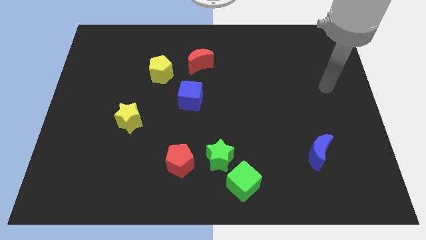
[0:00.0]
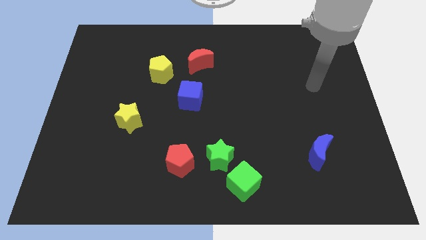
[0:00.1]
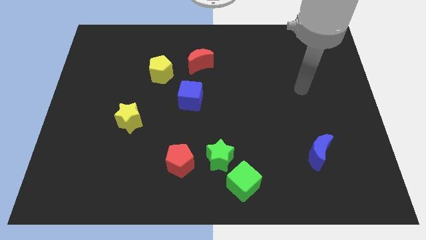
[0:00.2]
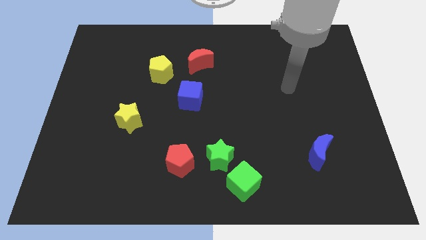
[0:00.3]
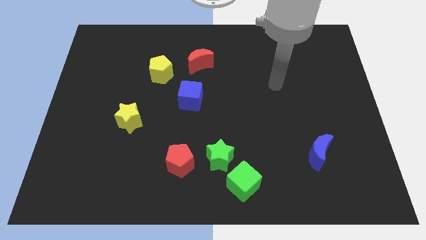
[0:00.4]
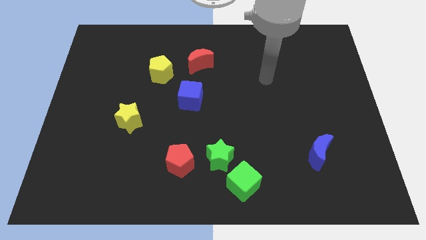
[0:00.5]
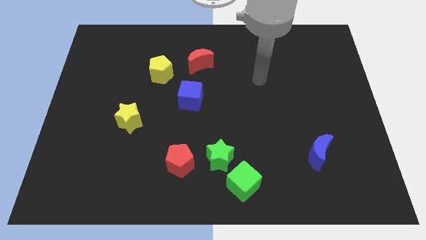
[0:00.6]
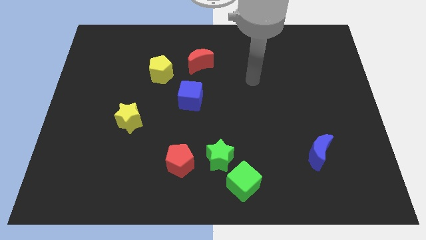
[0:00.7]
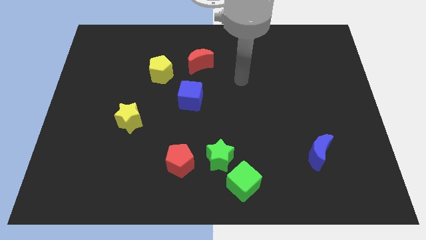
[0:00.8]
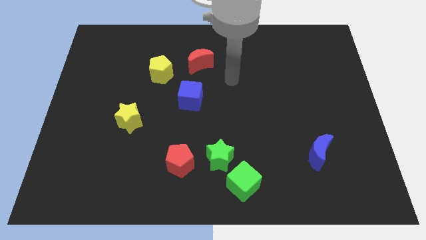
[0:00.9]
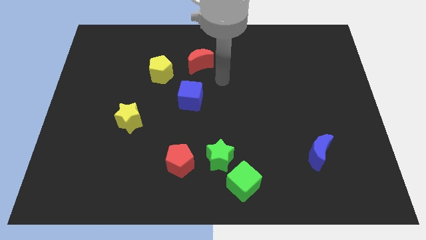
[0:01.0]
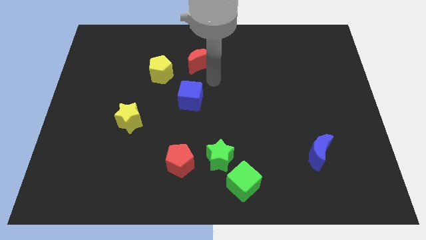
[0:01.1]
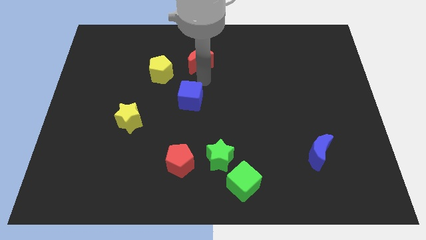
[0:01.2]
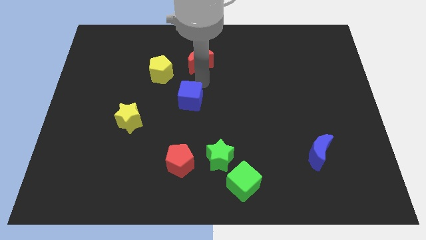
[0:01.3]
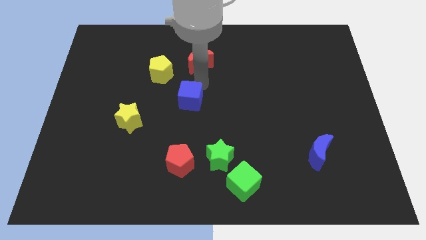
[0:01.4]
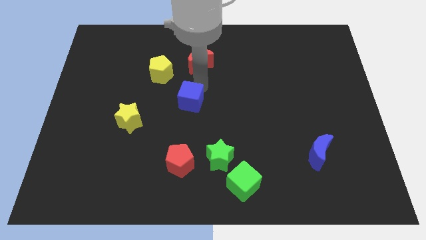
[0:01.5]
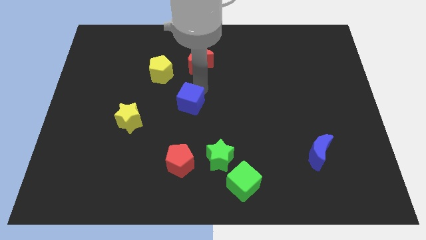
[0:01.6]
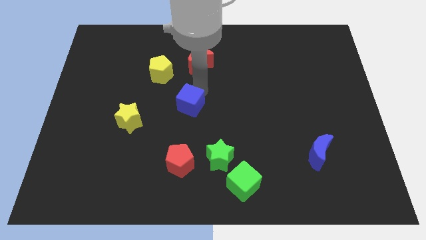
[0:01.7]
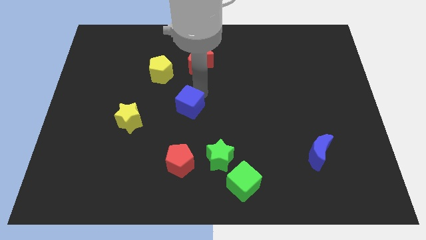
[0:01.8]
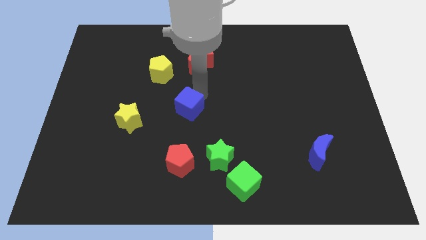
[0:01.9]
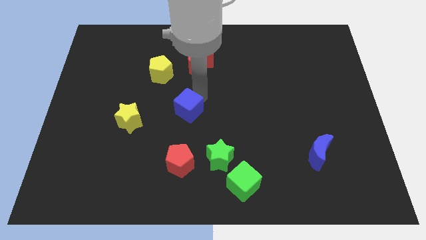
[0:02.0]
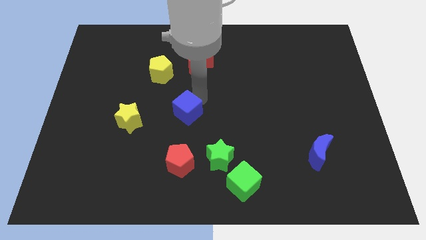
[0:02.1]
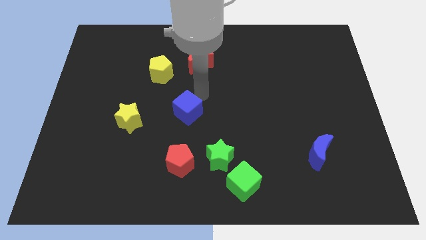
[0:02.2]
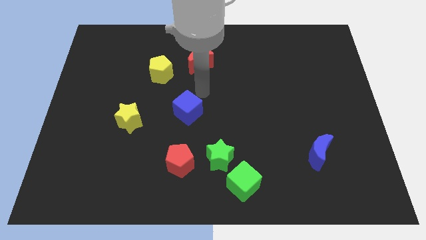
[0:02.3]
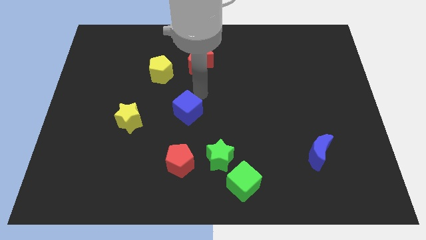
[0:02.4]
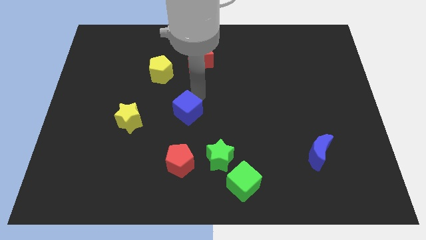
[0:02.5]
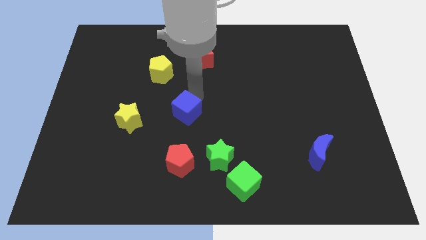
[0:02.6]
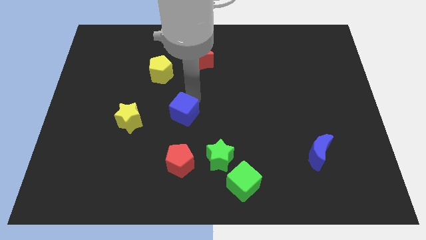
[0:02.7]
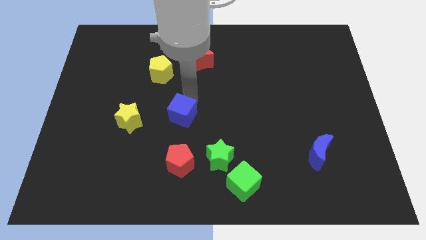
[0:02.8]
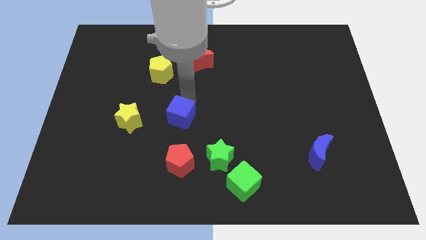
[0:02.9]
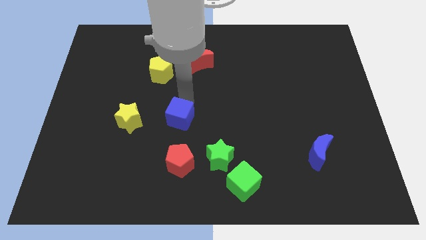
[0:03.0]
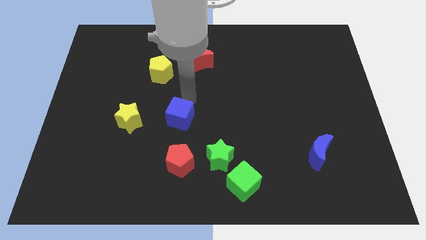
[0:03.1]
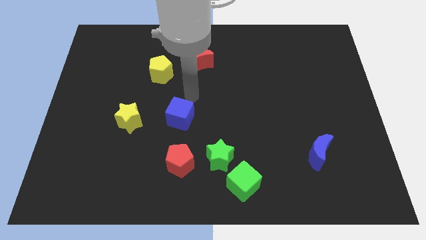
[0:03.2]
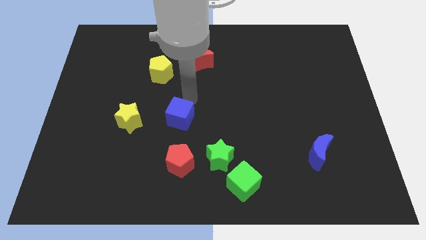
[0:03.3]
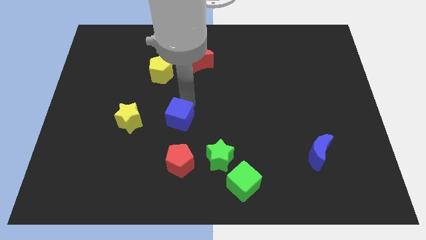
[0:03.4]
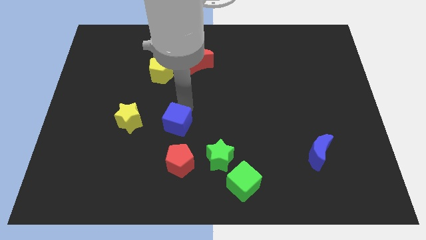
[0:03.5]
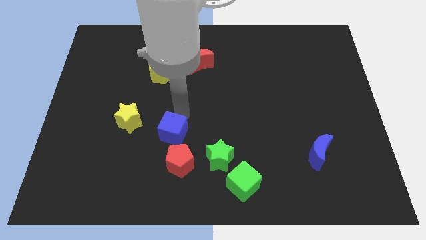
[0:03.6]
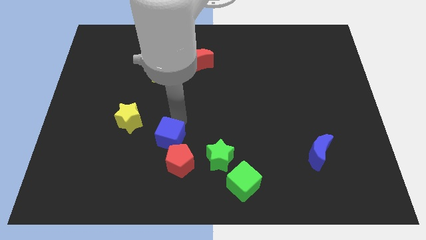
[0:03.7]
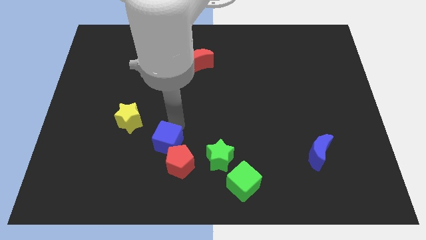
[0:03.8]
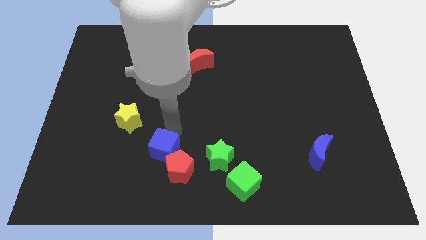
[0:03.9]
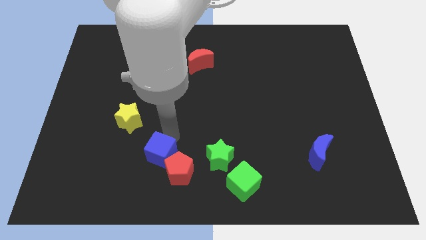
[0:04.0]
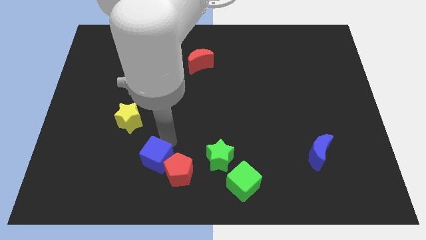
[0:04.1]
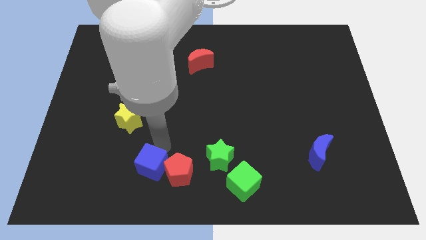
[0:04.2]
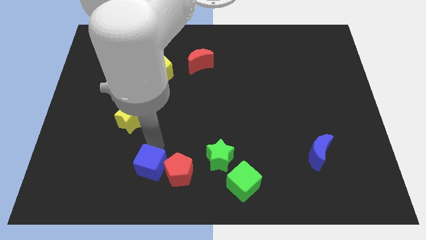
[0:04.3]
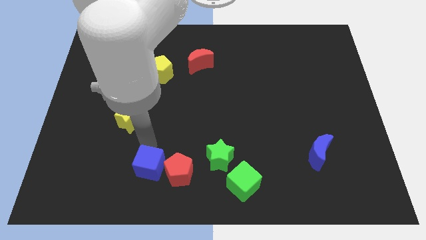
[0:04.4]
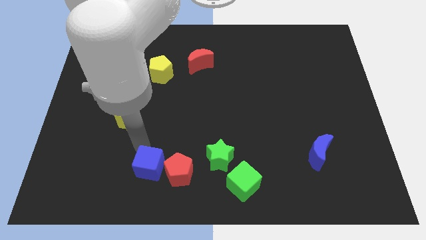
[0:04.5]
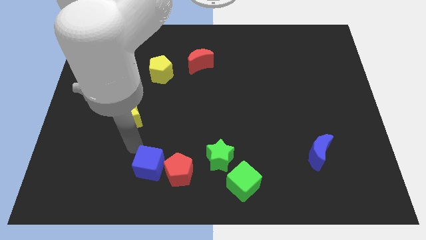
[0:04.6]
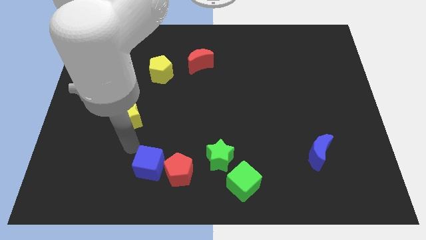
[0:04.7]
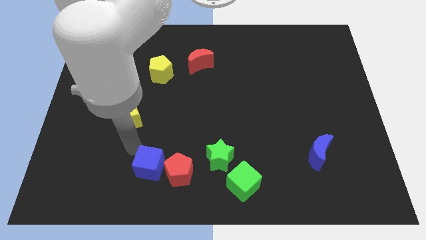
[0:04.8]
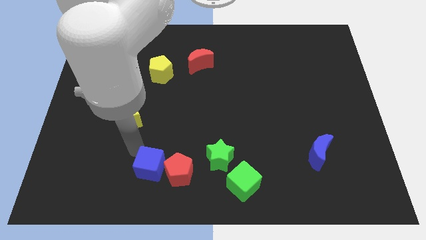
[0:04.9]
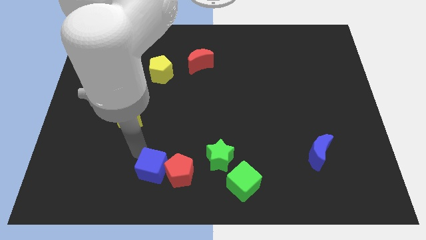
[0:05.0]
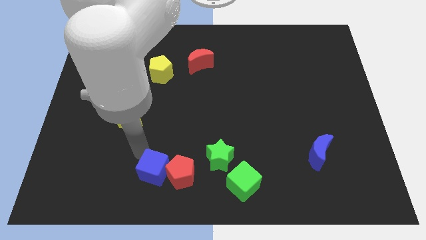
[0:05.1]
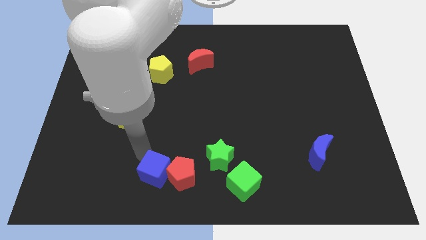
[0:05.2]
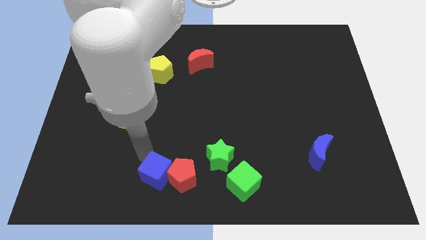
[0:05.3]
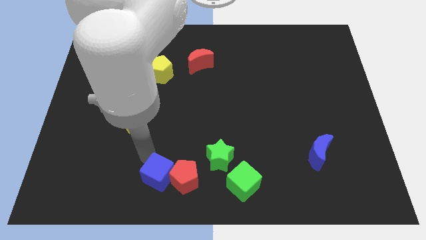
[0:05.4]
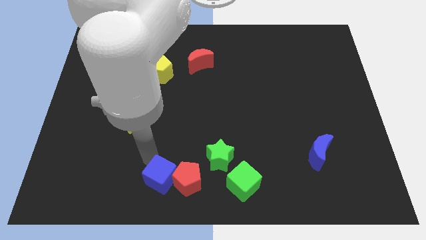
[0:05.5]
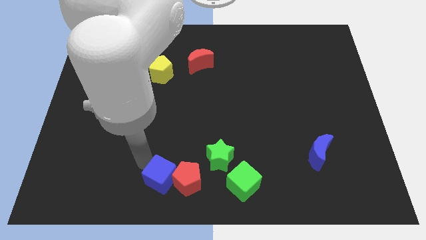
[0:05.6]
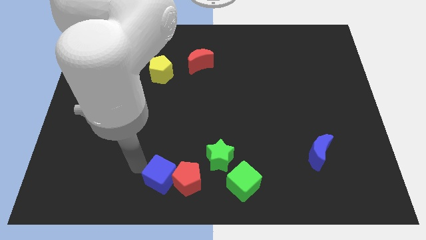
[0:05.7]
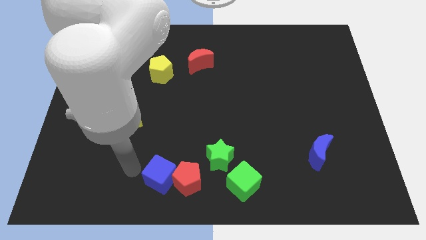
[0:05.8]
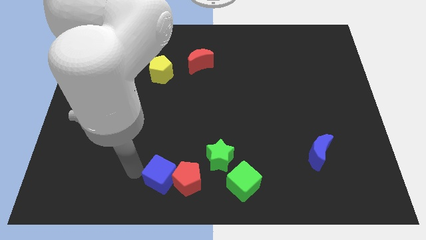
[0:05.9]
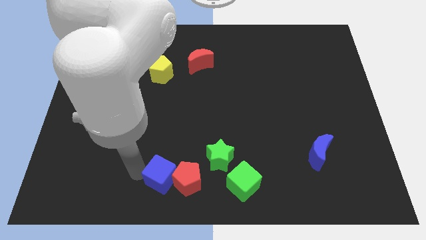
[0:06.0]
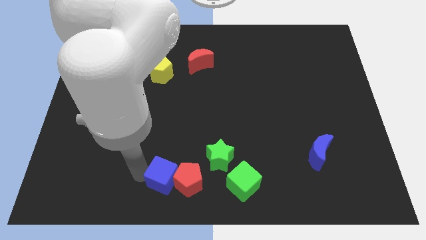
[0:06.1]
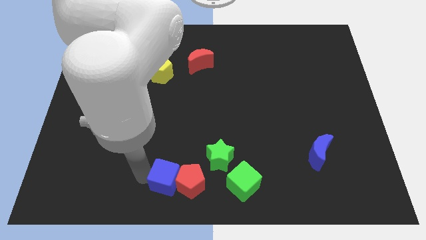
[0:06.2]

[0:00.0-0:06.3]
slide the blue cube just left of the green cube
